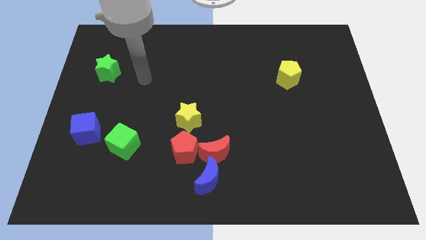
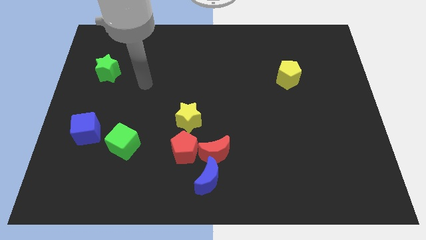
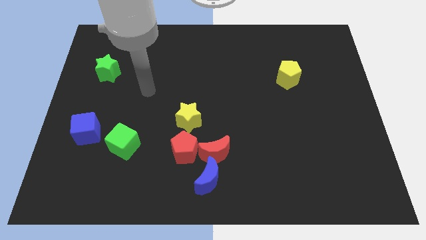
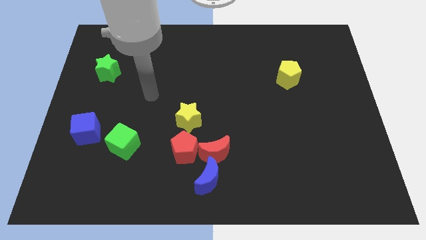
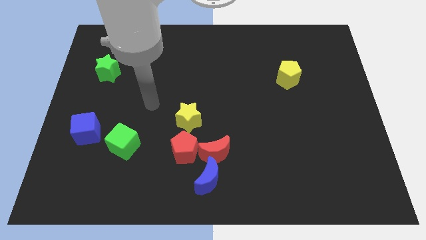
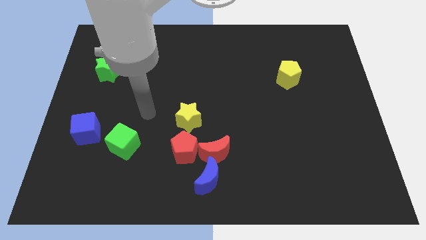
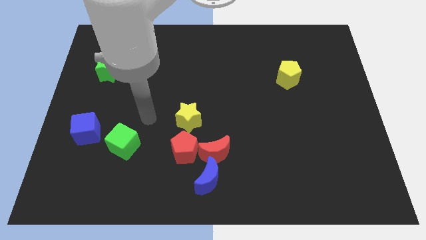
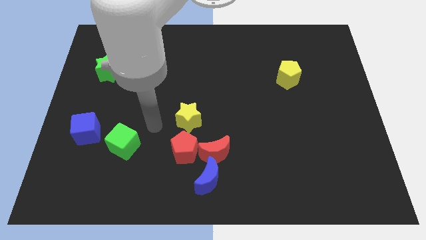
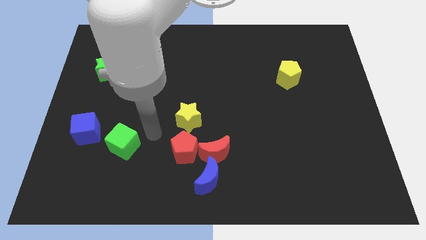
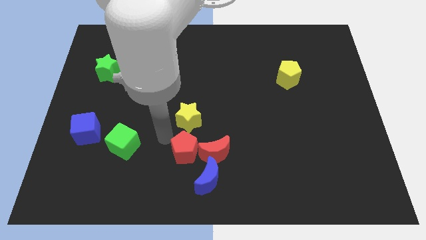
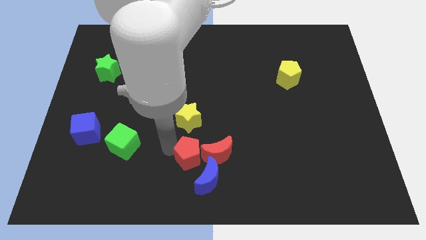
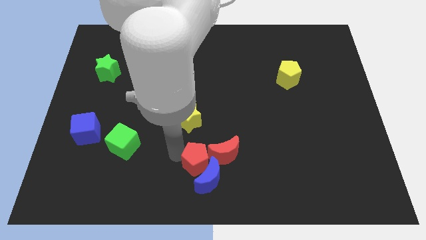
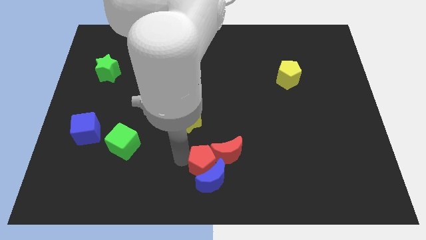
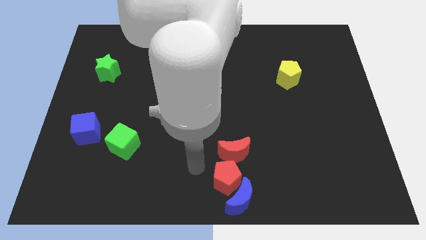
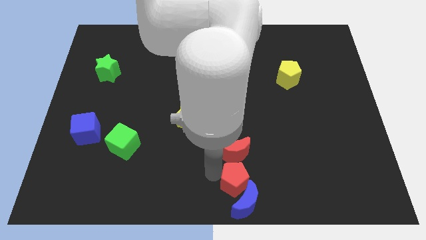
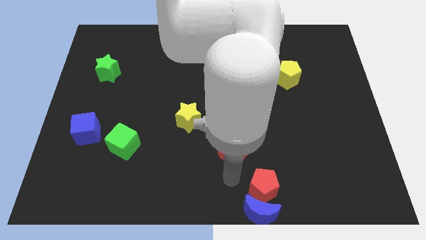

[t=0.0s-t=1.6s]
move the red moon away from the blue moon and red pentagon

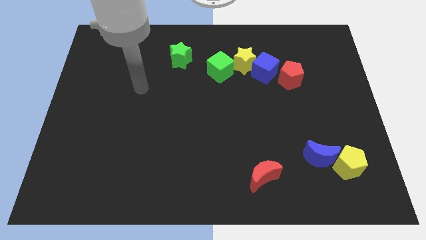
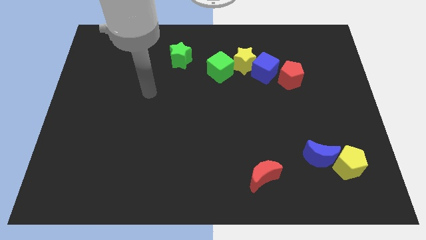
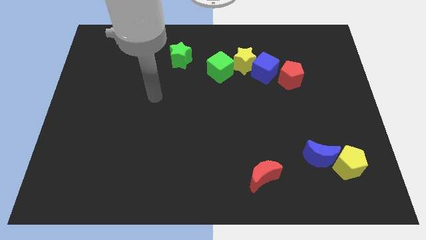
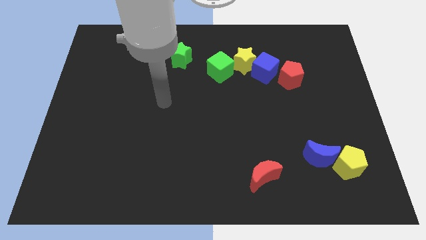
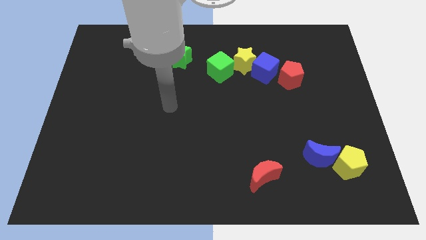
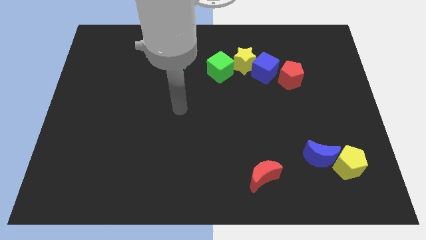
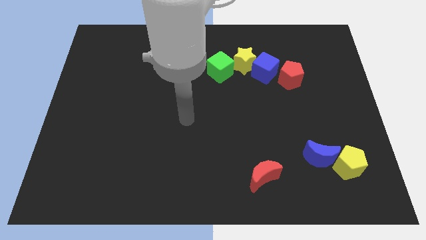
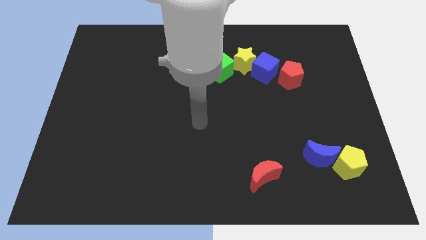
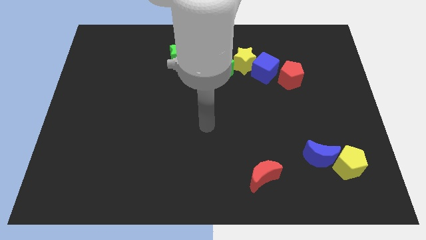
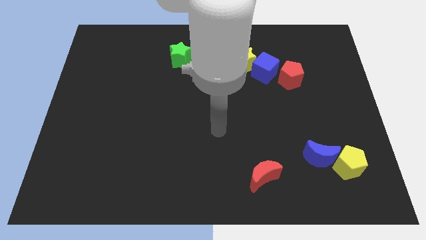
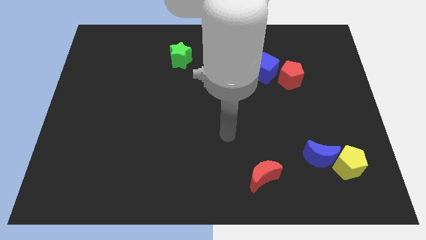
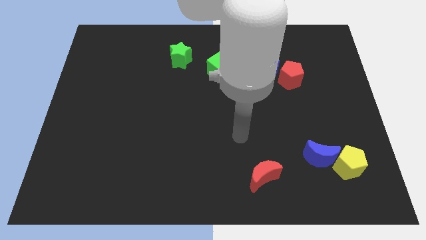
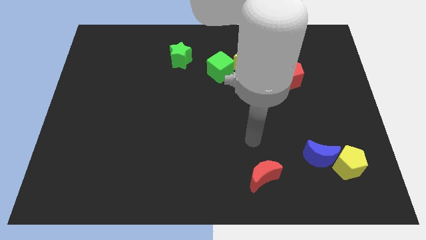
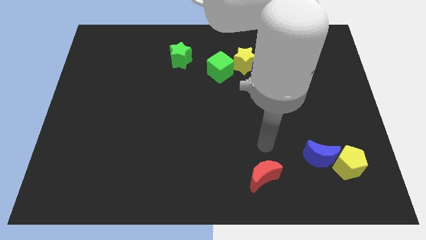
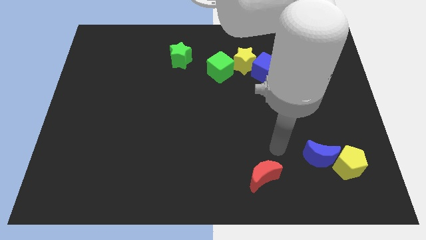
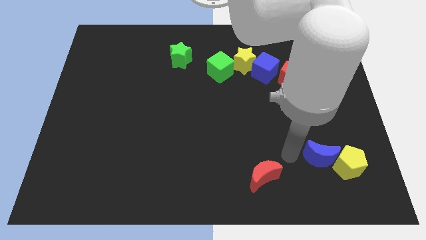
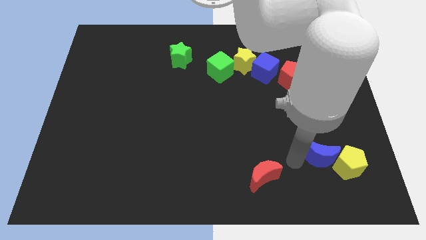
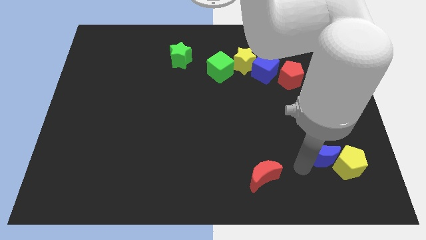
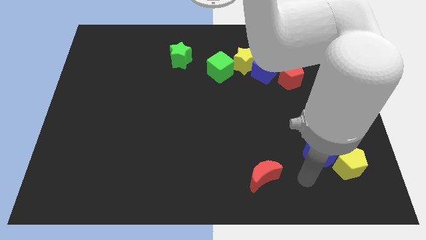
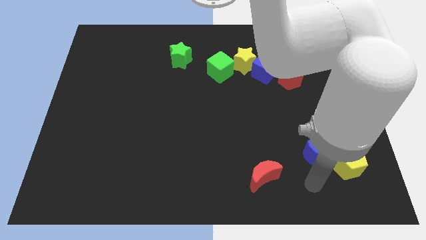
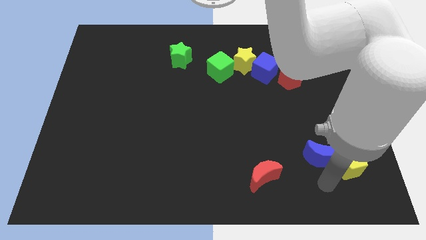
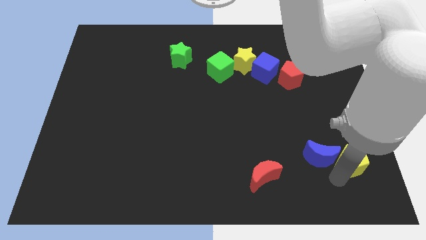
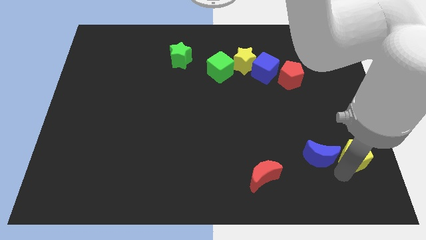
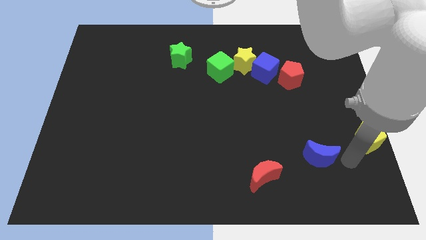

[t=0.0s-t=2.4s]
move the blue moon away from the yellow pentagon

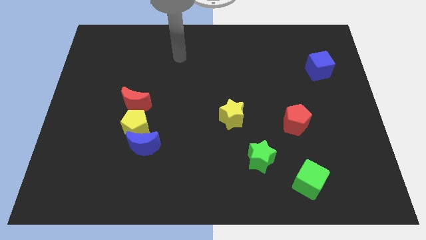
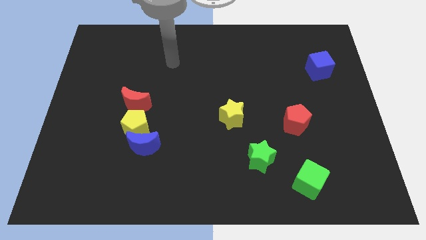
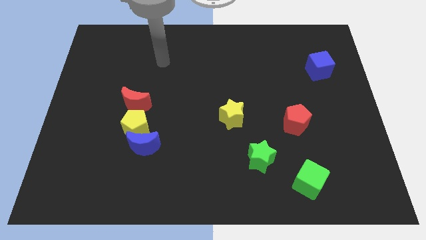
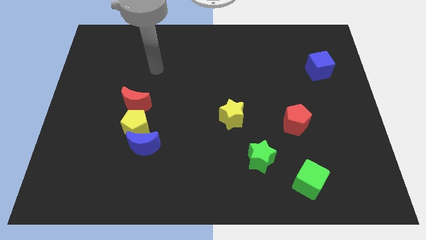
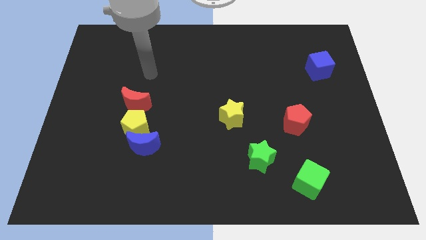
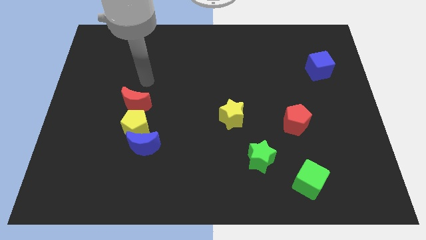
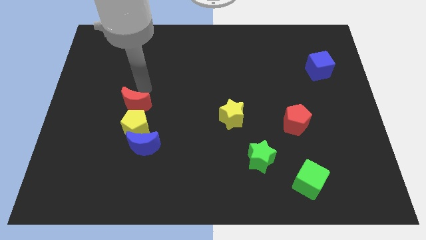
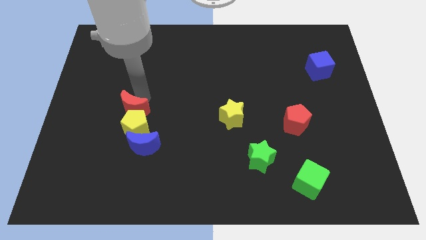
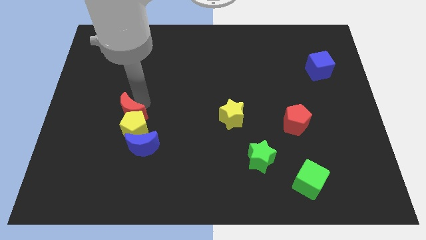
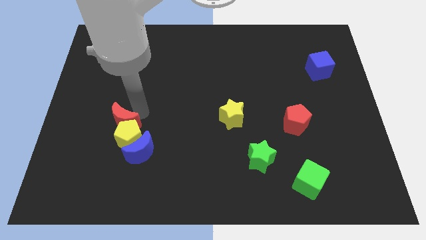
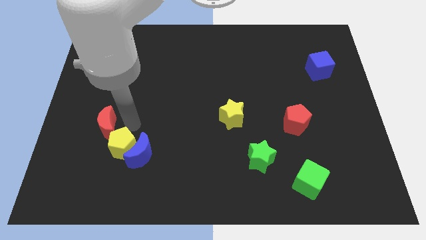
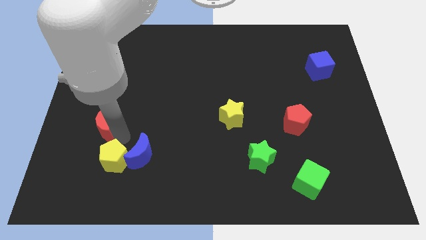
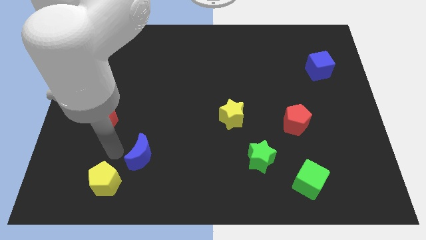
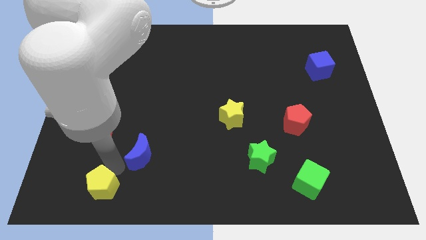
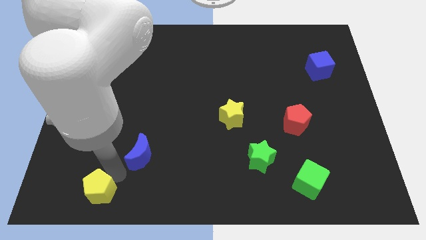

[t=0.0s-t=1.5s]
pull the blue moon apart from the yellow pentagon

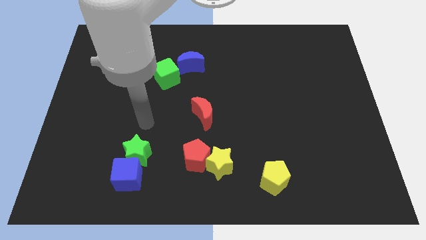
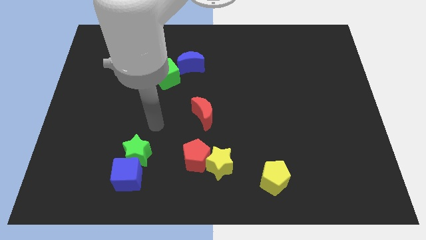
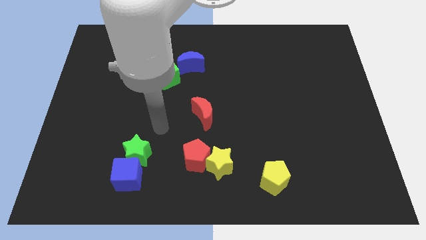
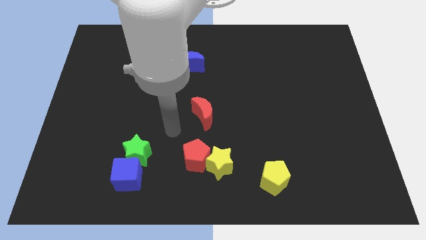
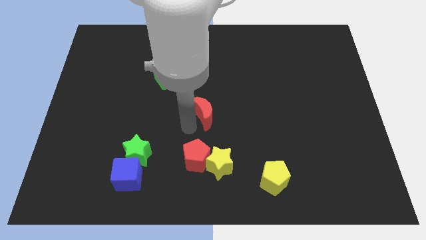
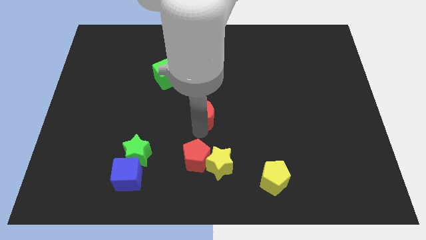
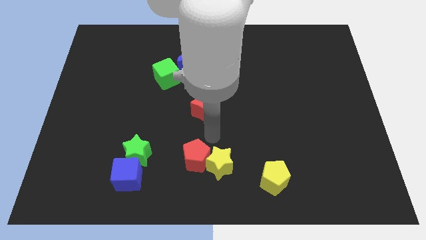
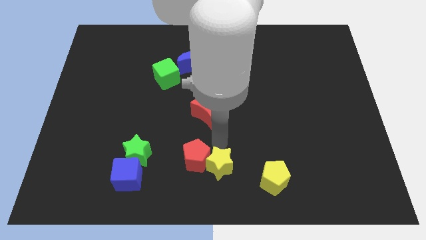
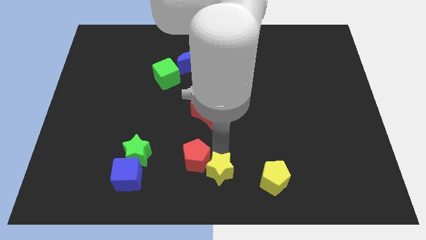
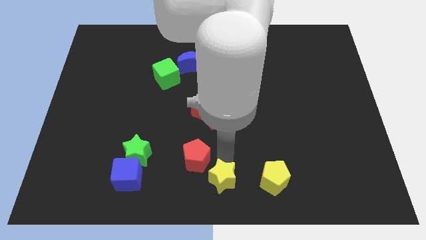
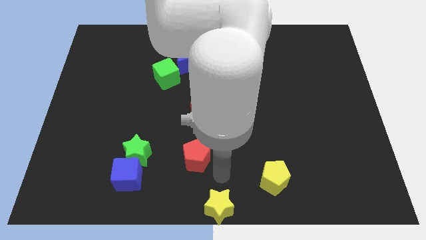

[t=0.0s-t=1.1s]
pull the red pentagon apart from the yellow star

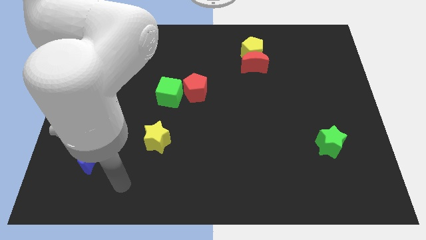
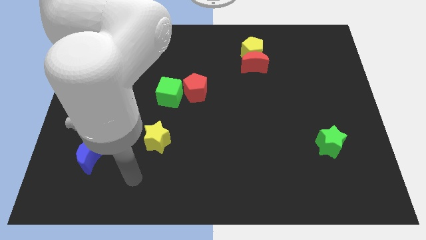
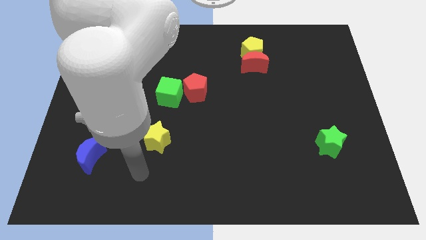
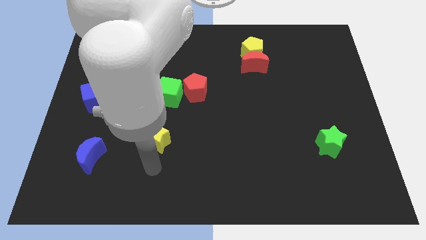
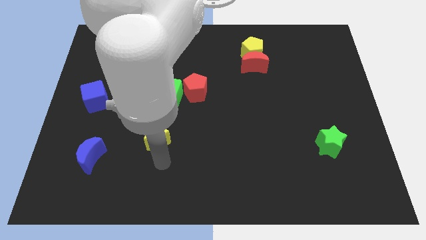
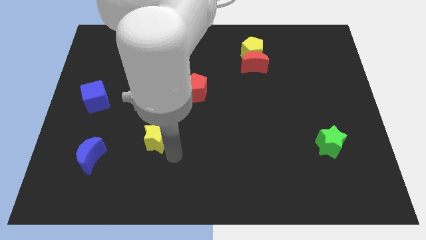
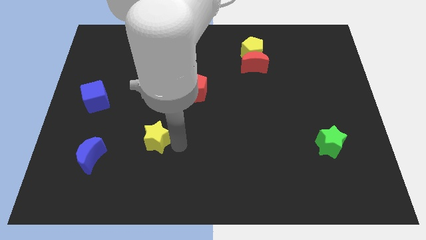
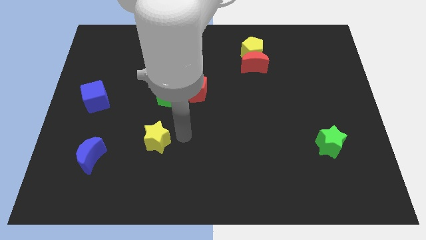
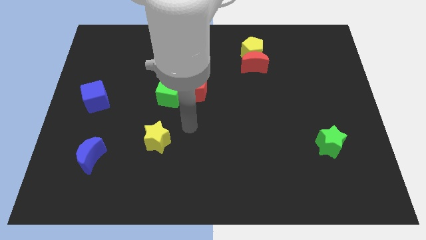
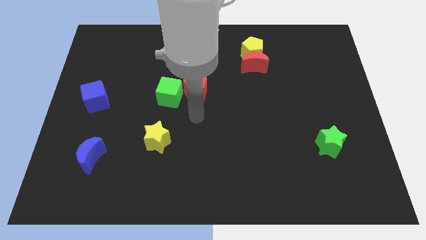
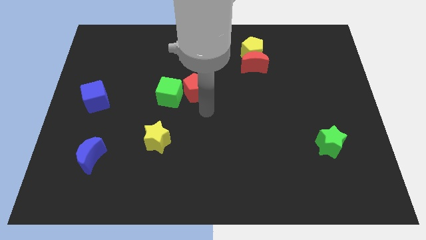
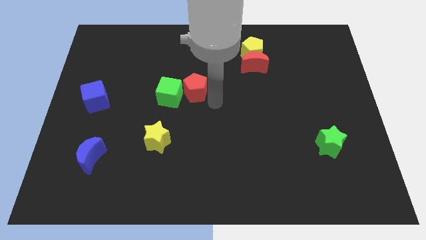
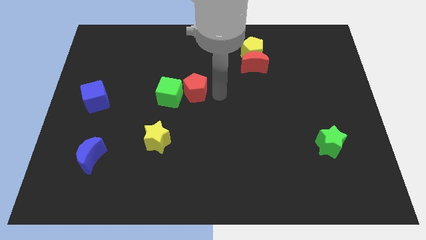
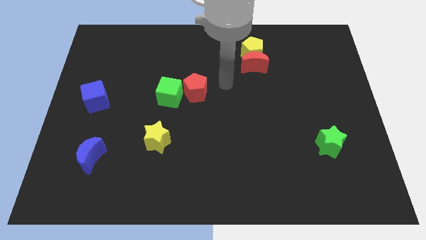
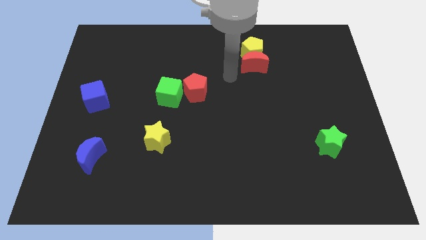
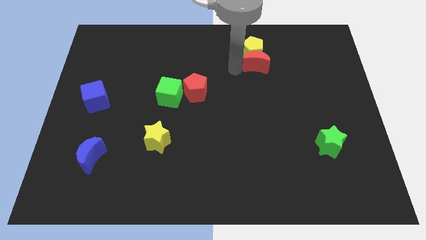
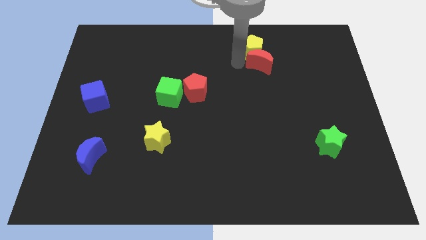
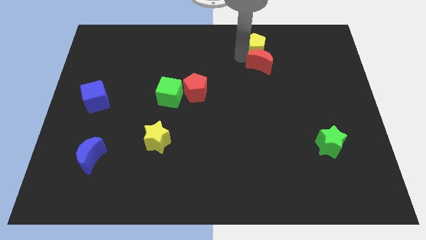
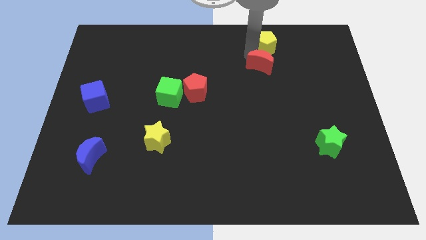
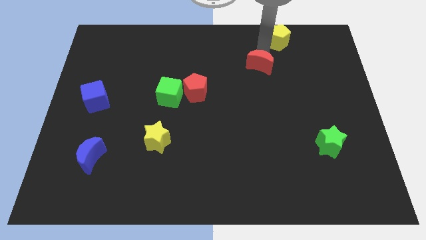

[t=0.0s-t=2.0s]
pull the red moon apart from the yellow pentagon

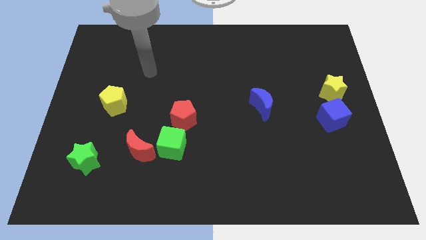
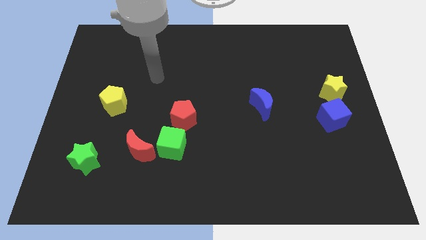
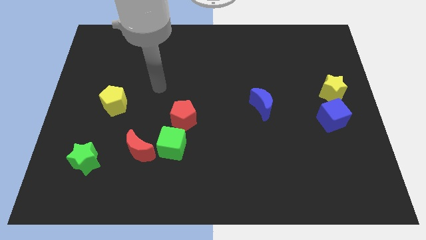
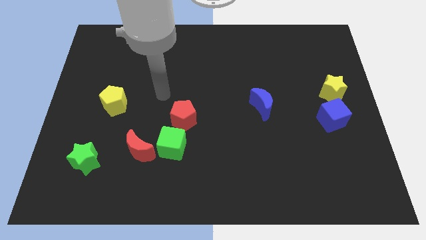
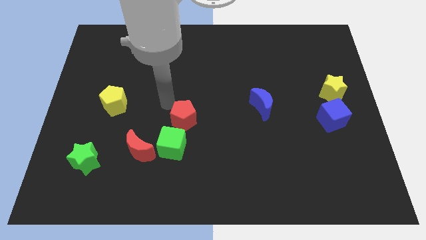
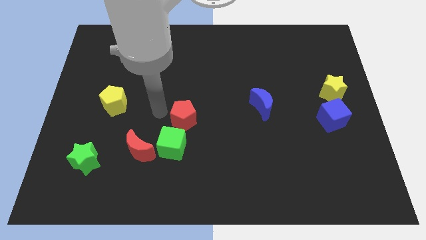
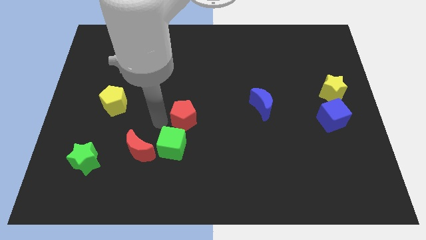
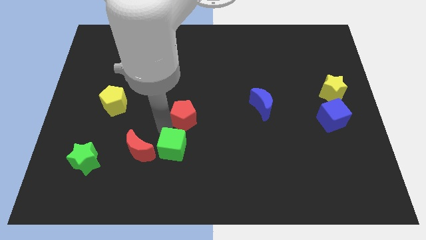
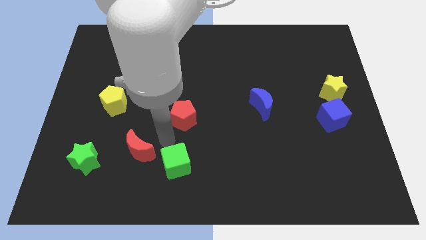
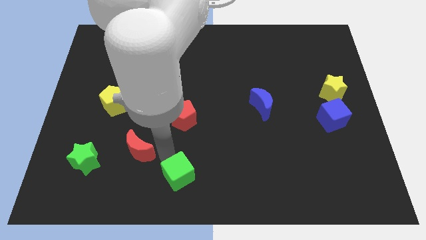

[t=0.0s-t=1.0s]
move the red moon away from the green cube
